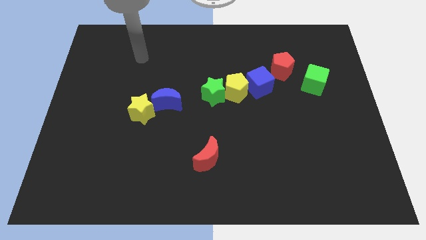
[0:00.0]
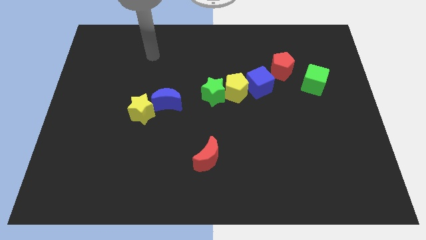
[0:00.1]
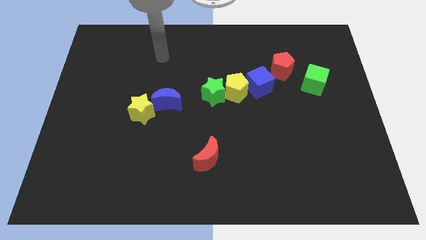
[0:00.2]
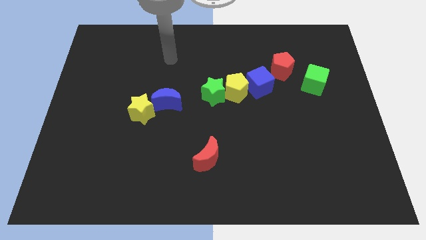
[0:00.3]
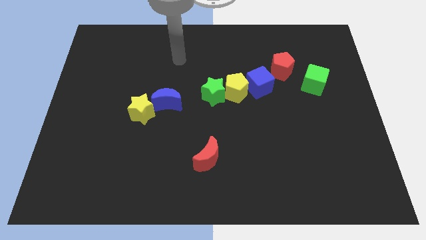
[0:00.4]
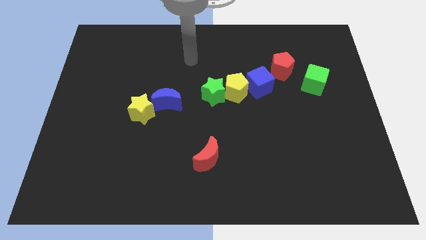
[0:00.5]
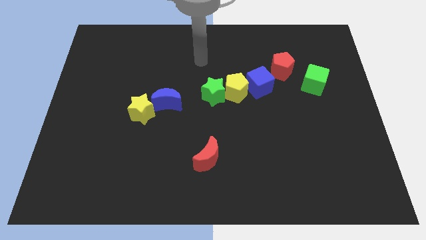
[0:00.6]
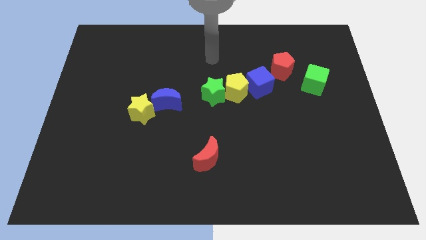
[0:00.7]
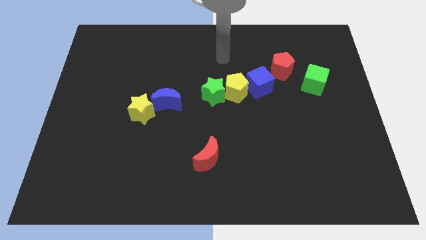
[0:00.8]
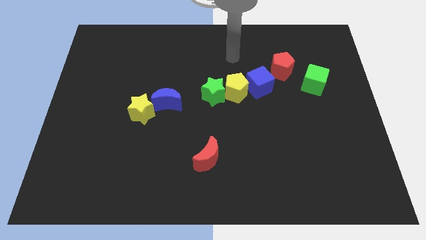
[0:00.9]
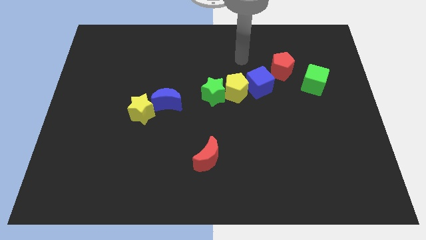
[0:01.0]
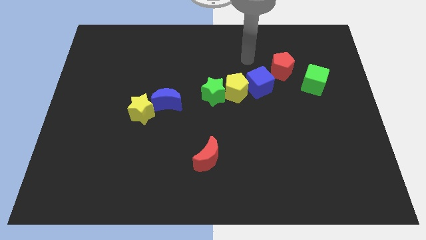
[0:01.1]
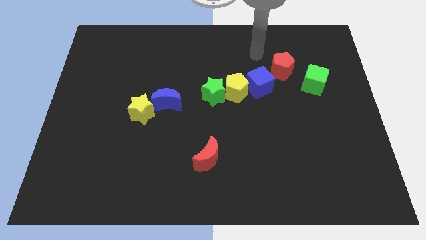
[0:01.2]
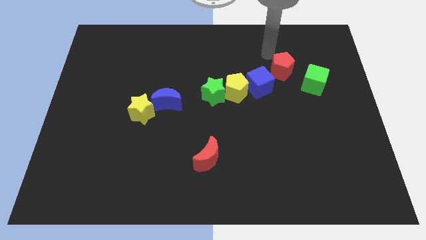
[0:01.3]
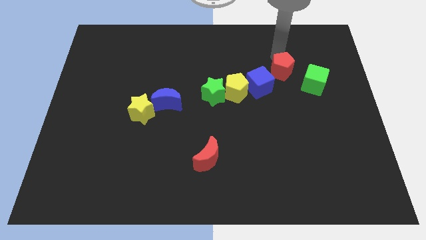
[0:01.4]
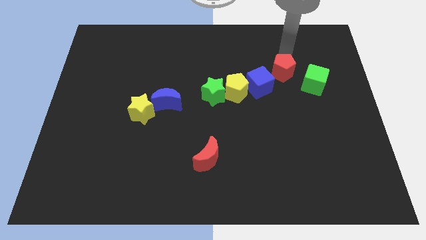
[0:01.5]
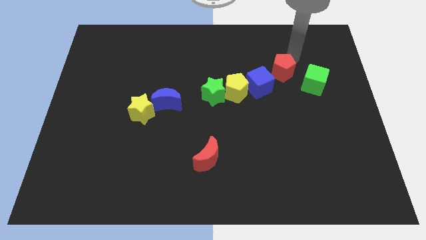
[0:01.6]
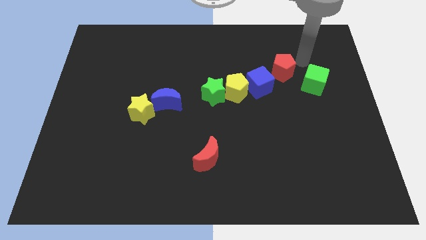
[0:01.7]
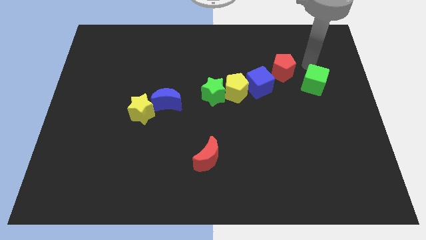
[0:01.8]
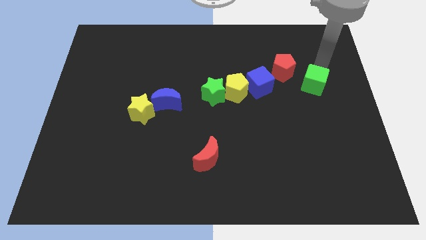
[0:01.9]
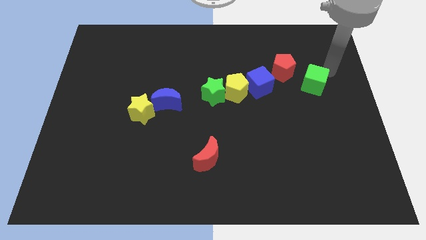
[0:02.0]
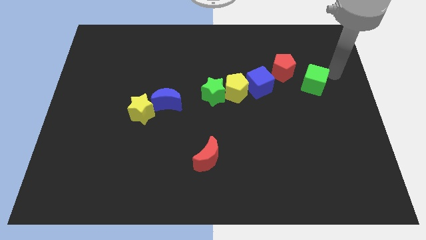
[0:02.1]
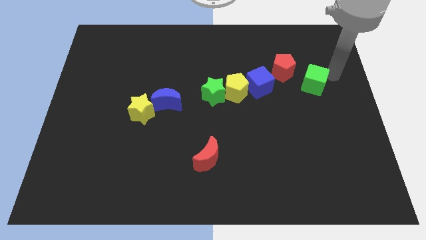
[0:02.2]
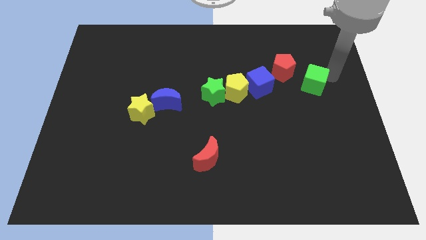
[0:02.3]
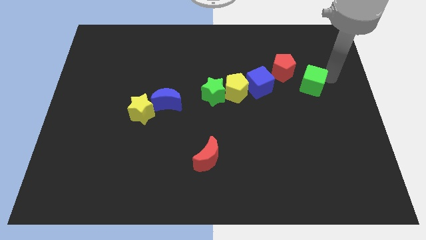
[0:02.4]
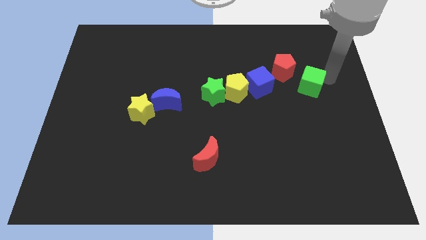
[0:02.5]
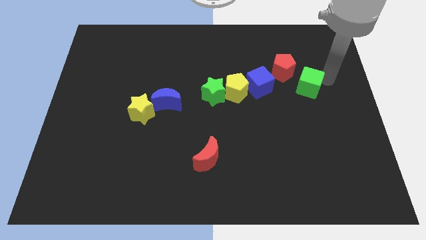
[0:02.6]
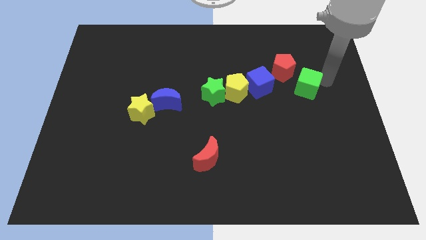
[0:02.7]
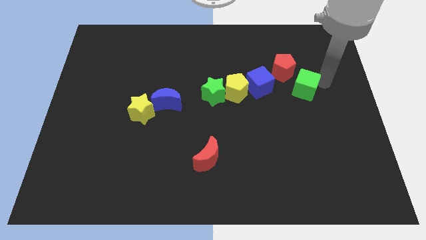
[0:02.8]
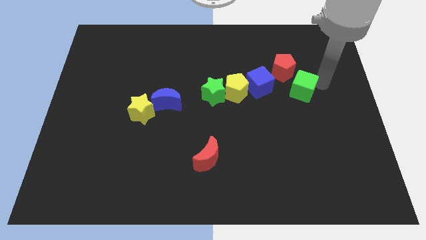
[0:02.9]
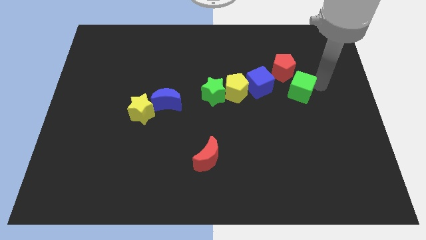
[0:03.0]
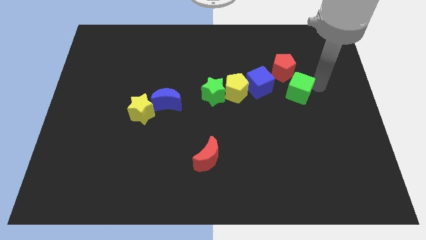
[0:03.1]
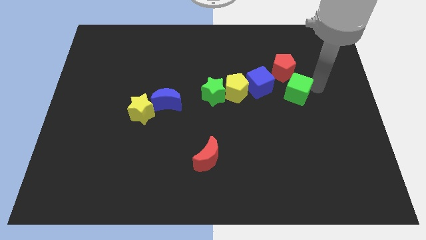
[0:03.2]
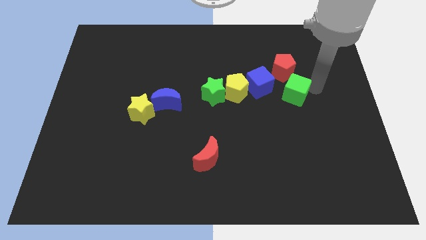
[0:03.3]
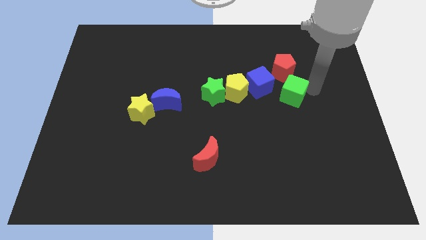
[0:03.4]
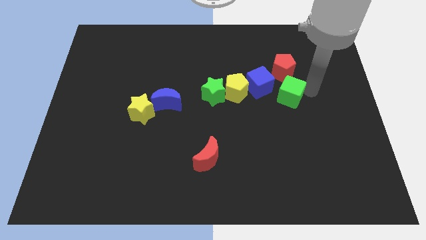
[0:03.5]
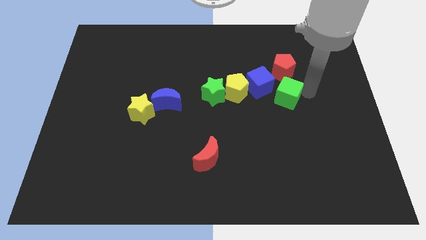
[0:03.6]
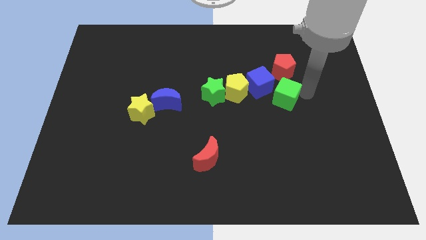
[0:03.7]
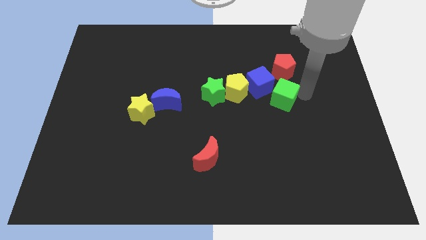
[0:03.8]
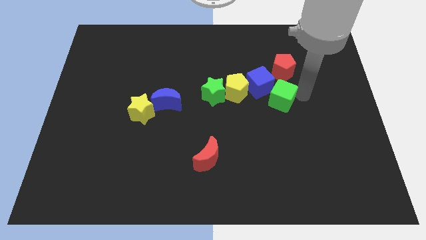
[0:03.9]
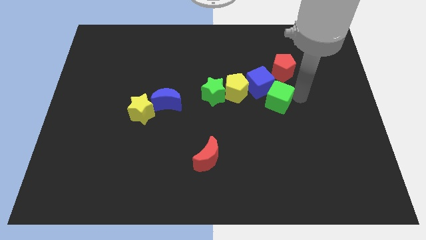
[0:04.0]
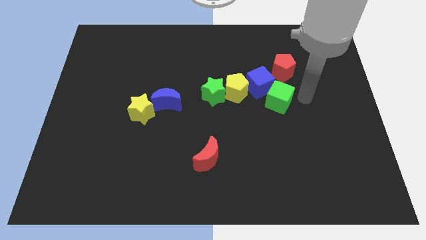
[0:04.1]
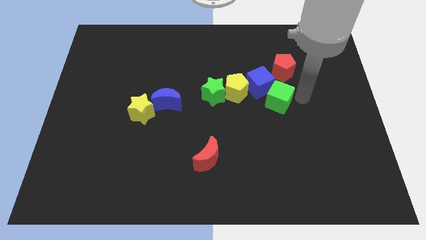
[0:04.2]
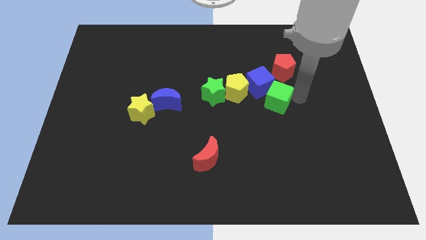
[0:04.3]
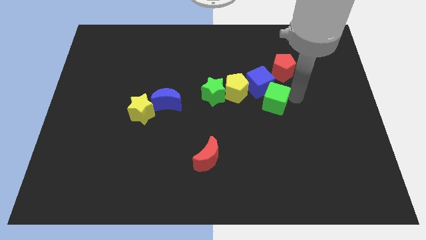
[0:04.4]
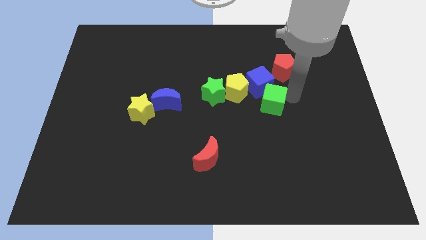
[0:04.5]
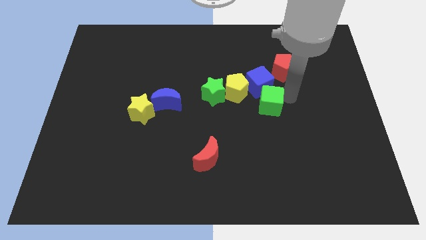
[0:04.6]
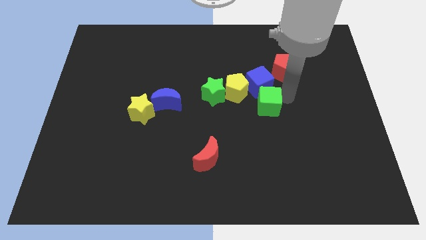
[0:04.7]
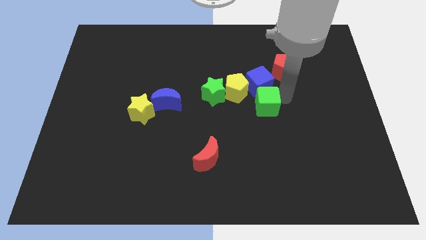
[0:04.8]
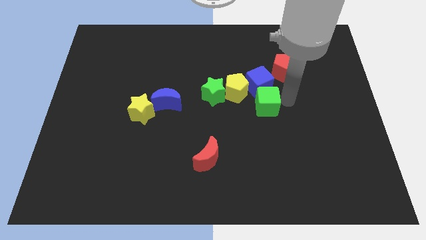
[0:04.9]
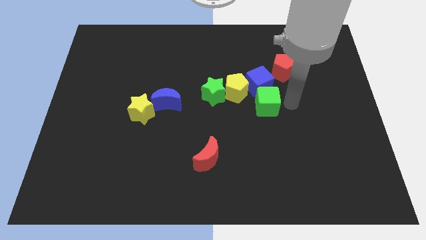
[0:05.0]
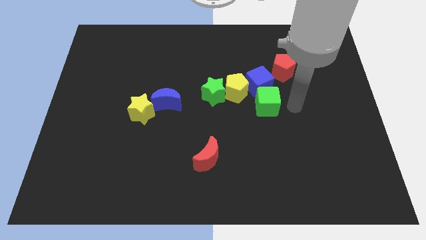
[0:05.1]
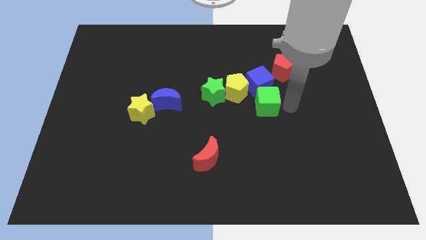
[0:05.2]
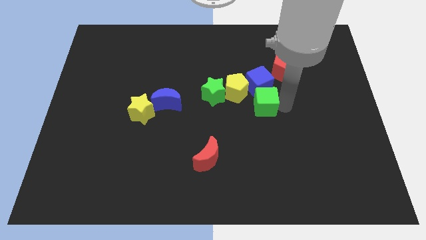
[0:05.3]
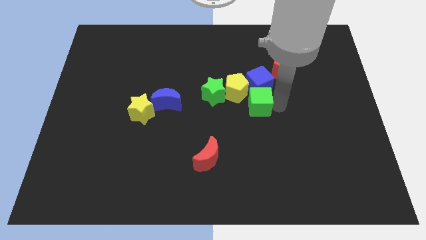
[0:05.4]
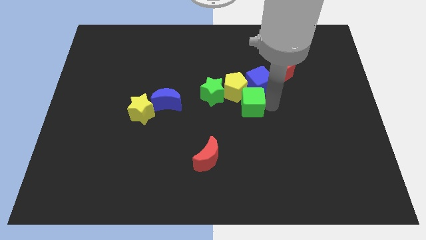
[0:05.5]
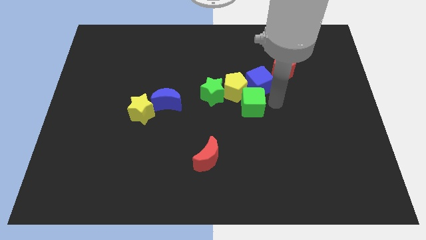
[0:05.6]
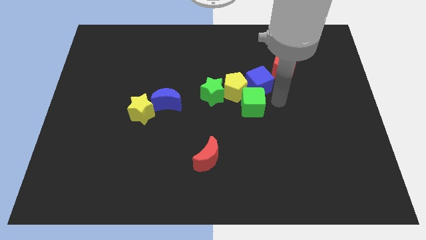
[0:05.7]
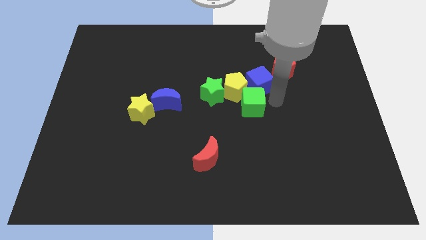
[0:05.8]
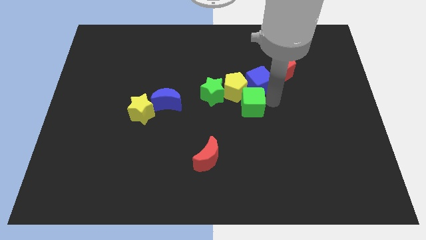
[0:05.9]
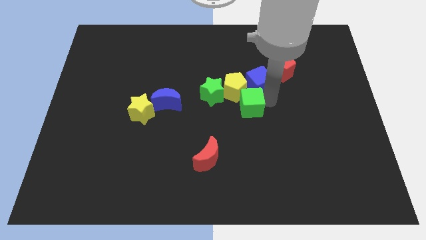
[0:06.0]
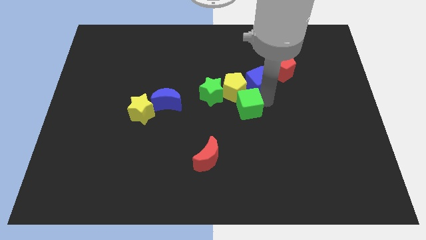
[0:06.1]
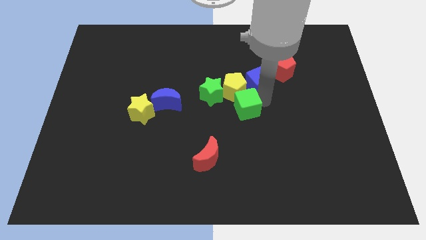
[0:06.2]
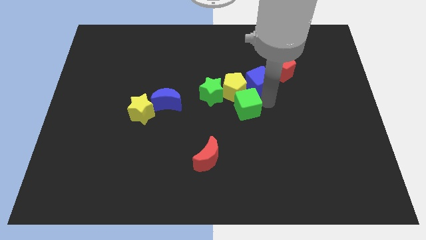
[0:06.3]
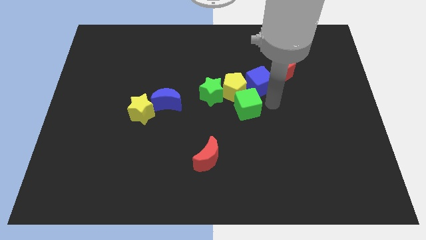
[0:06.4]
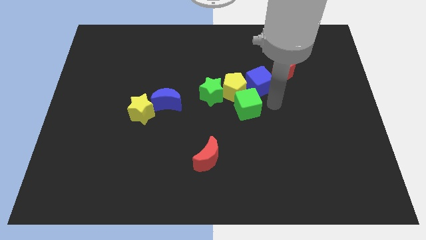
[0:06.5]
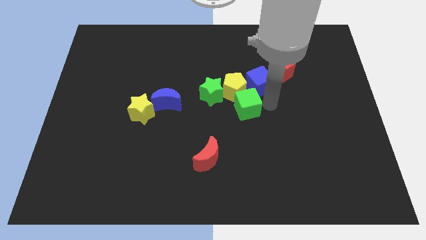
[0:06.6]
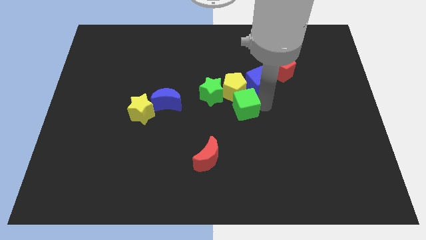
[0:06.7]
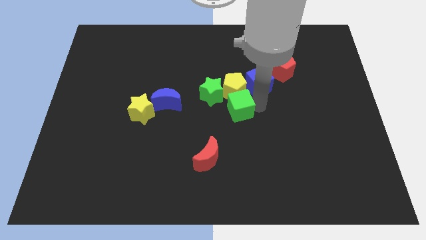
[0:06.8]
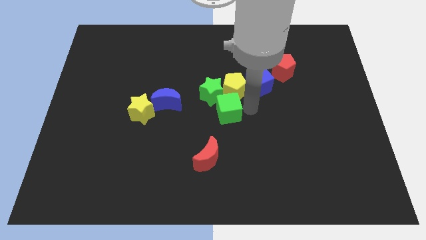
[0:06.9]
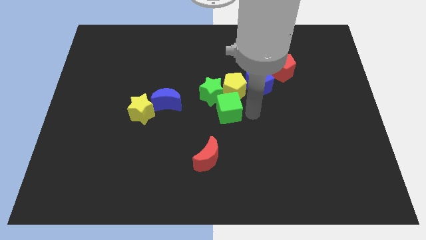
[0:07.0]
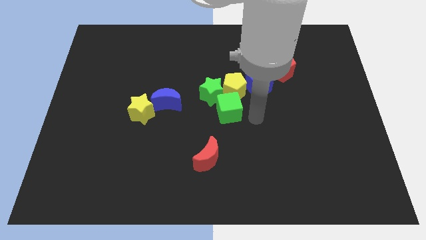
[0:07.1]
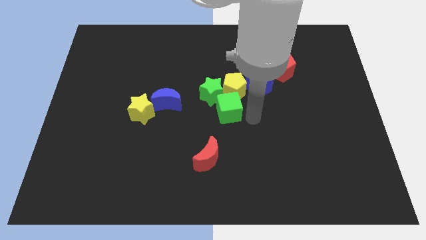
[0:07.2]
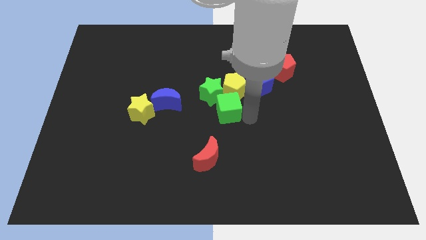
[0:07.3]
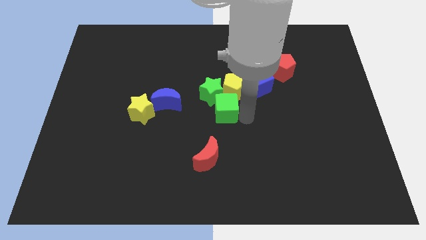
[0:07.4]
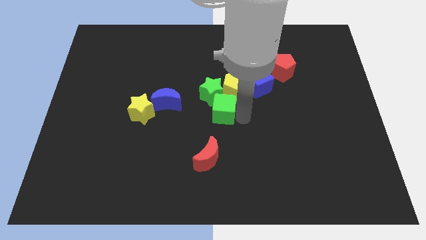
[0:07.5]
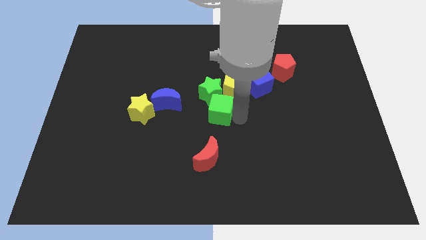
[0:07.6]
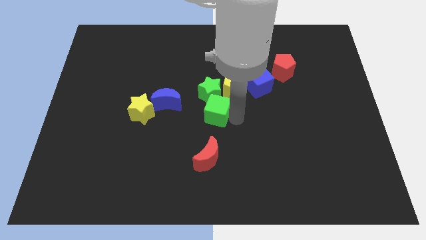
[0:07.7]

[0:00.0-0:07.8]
push the green cube left
